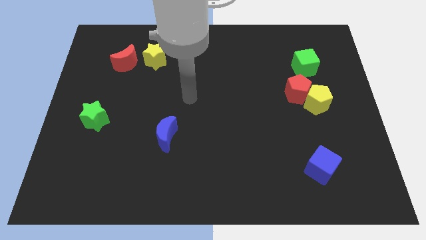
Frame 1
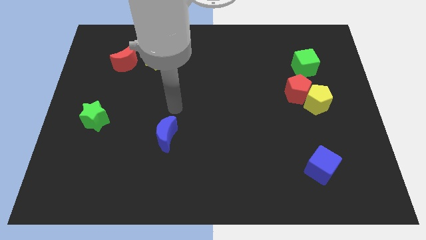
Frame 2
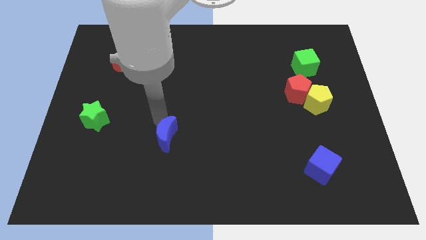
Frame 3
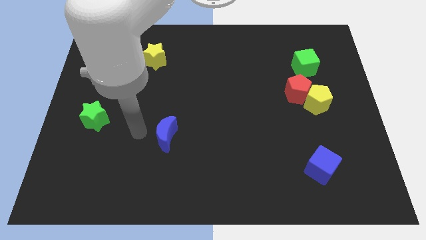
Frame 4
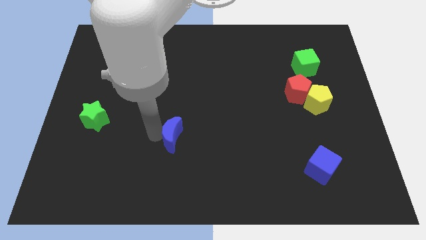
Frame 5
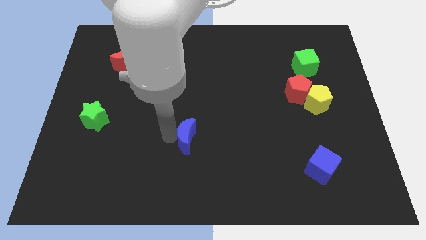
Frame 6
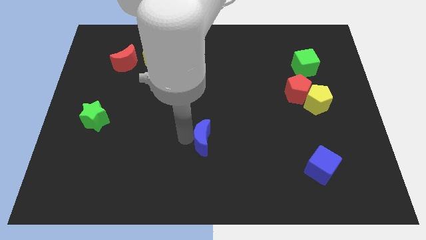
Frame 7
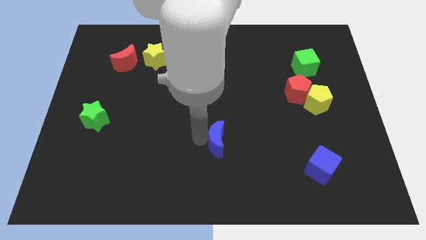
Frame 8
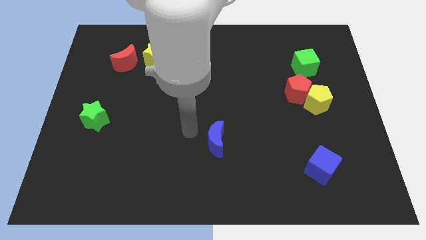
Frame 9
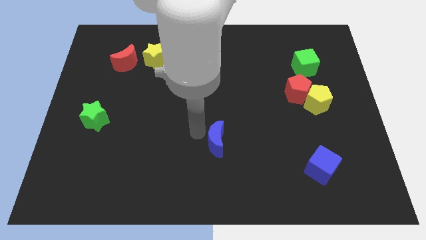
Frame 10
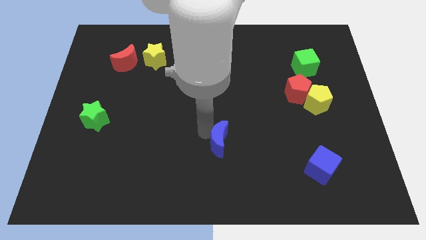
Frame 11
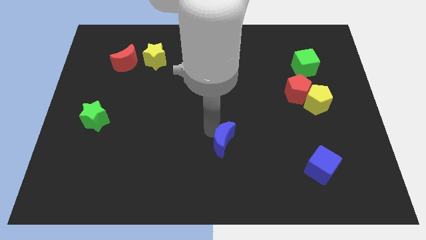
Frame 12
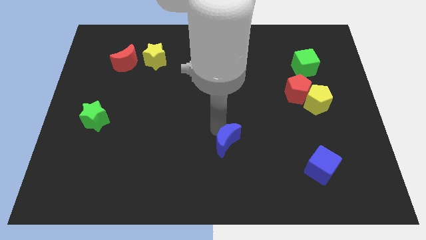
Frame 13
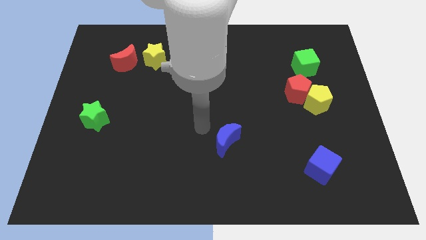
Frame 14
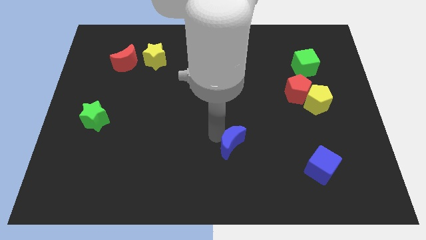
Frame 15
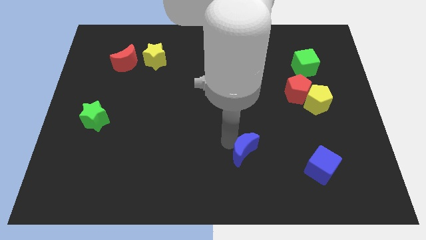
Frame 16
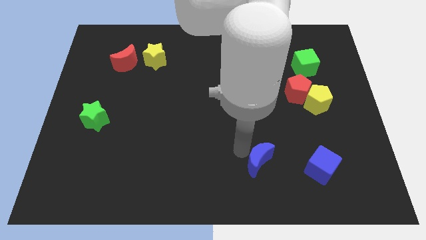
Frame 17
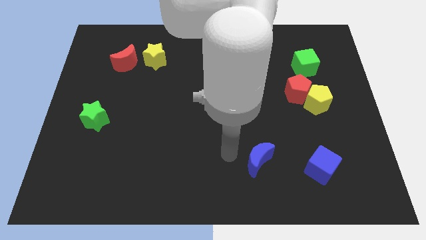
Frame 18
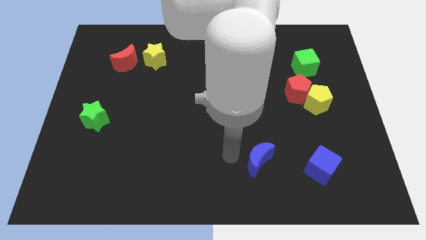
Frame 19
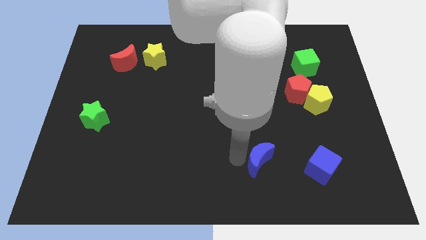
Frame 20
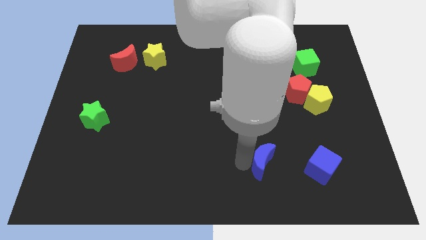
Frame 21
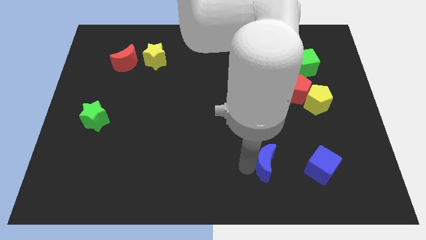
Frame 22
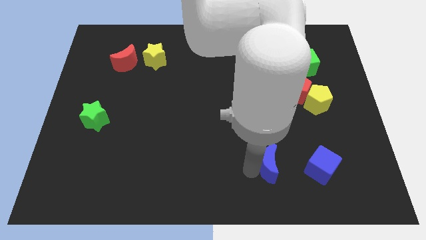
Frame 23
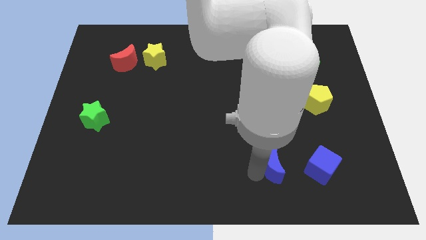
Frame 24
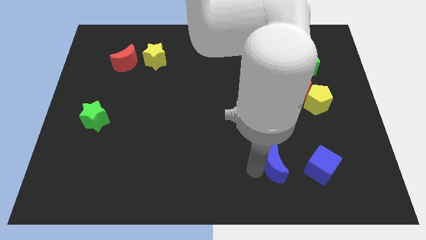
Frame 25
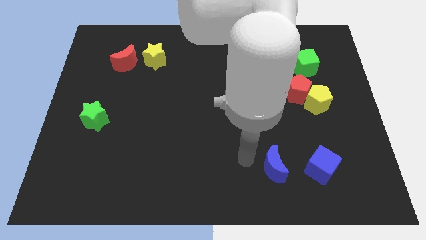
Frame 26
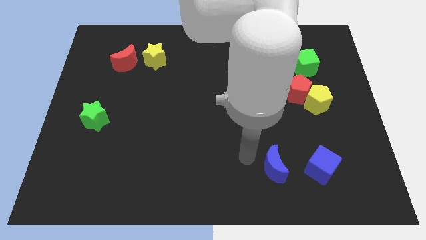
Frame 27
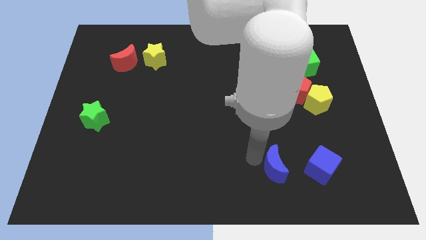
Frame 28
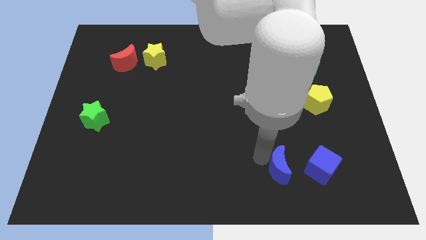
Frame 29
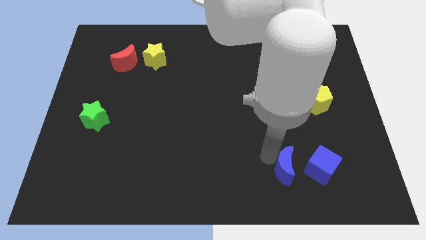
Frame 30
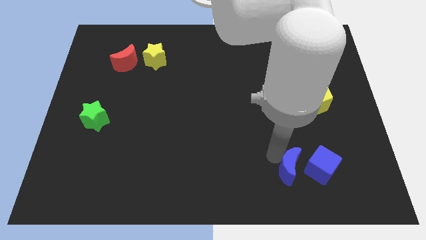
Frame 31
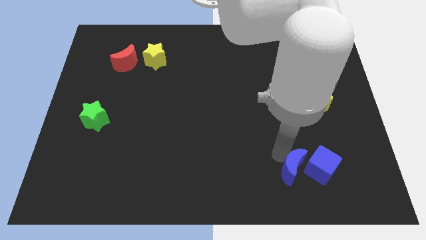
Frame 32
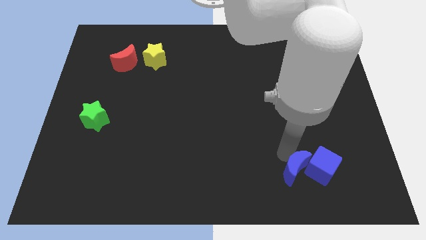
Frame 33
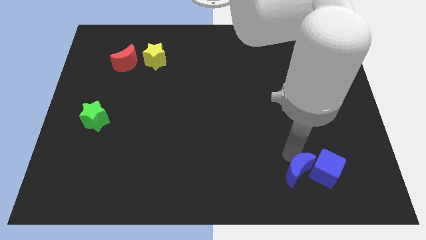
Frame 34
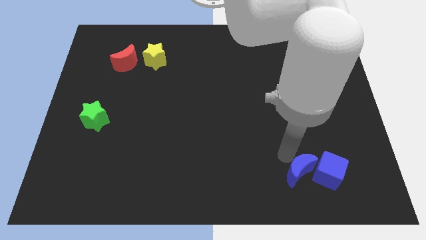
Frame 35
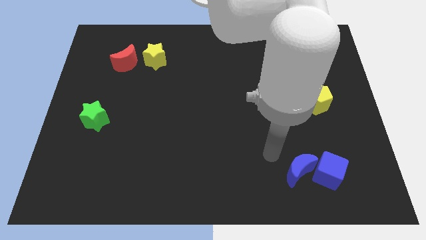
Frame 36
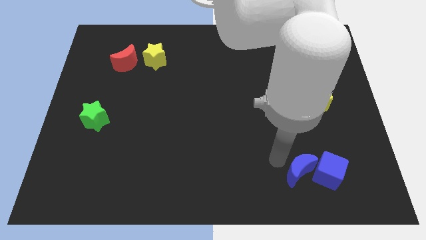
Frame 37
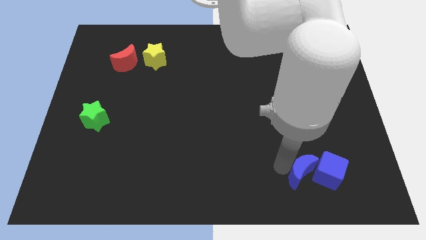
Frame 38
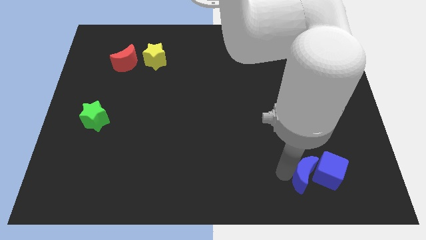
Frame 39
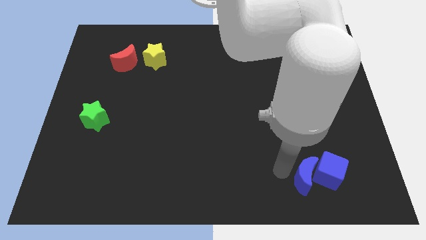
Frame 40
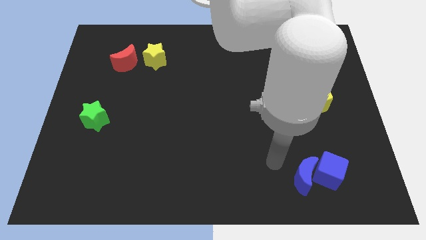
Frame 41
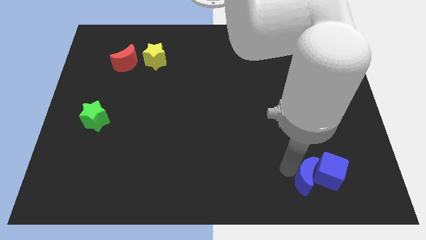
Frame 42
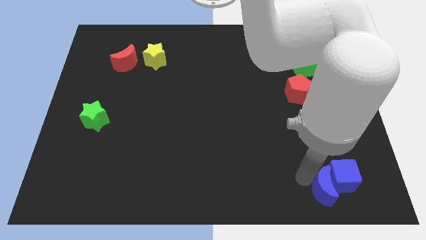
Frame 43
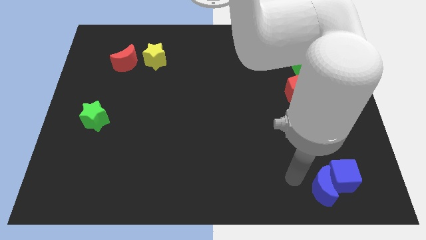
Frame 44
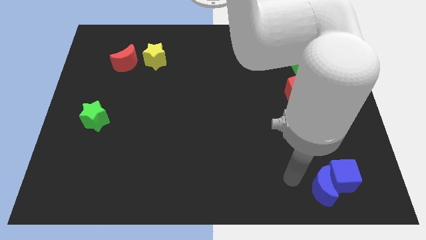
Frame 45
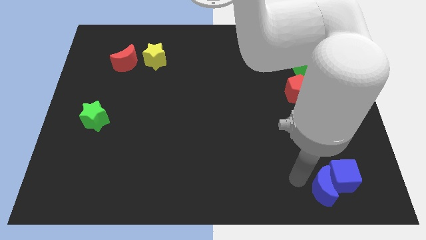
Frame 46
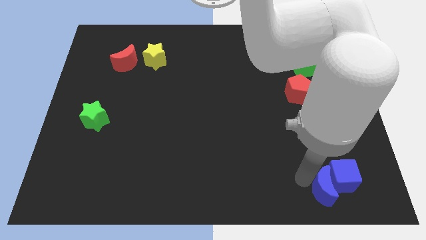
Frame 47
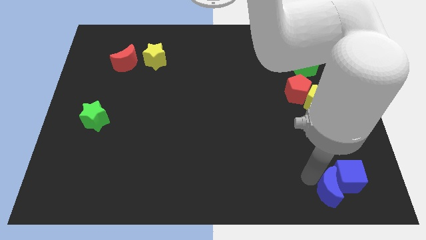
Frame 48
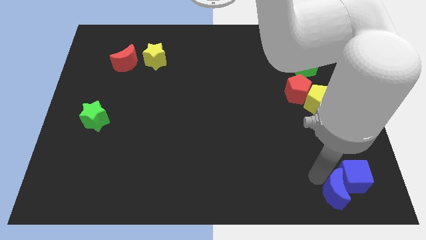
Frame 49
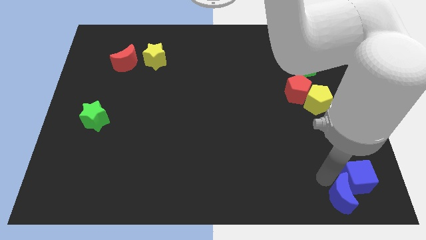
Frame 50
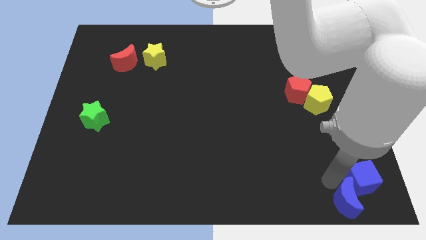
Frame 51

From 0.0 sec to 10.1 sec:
slide the blue moon to the bottom right

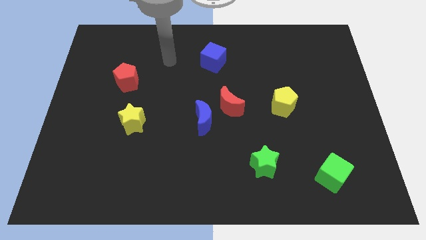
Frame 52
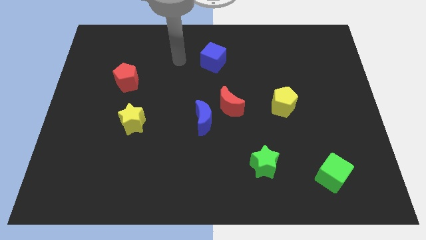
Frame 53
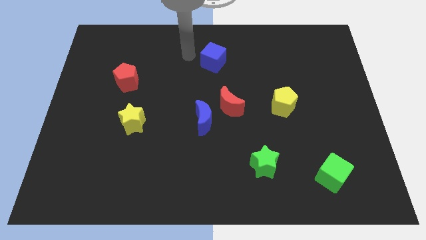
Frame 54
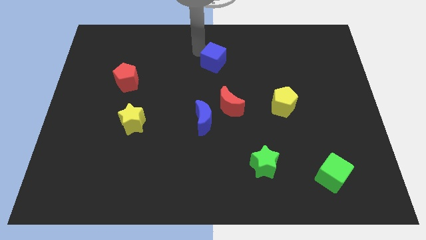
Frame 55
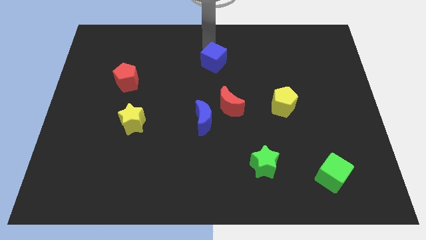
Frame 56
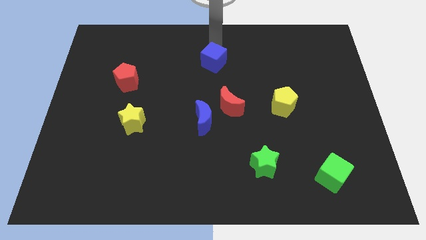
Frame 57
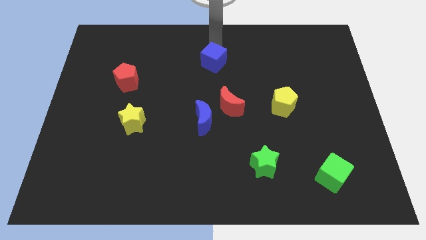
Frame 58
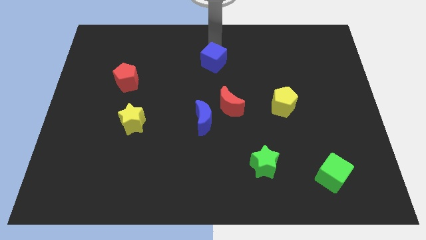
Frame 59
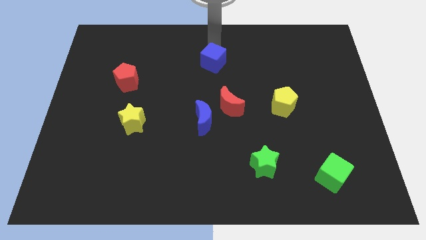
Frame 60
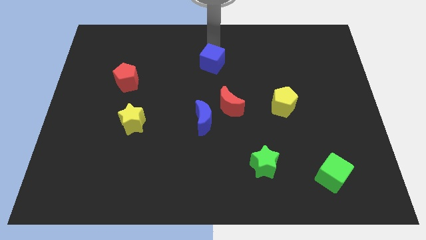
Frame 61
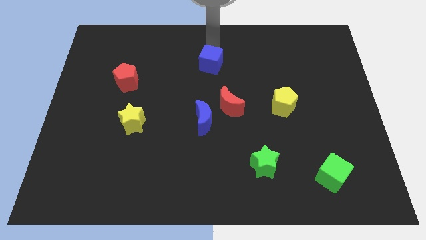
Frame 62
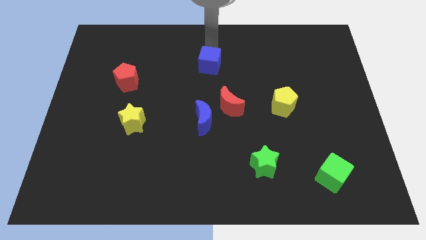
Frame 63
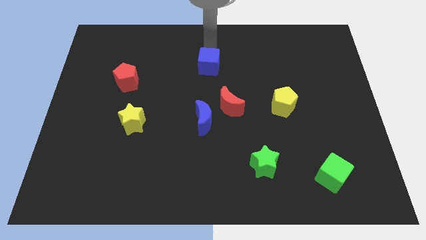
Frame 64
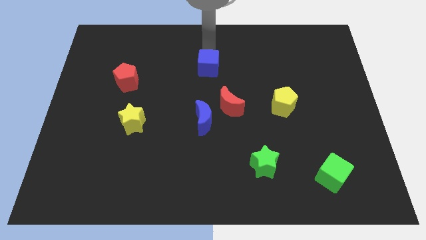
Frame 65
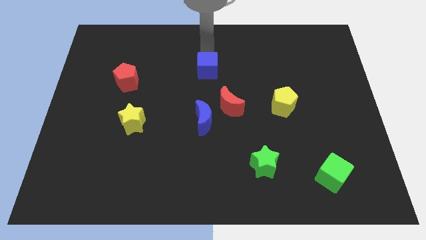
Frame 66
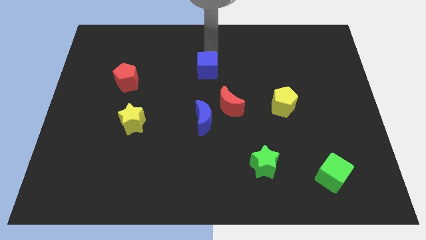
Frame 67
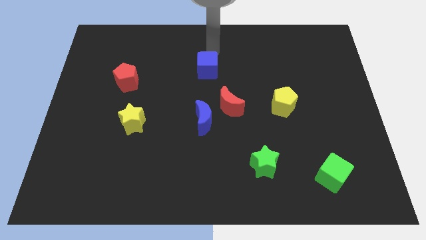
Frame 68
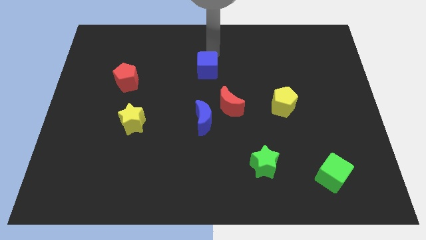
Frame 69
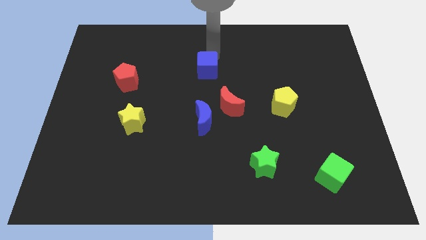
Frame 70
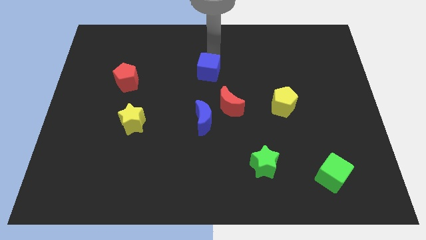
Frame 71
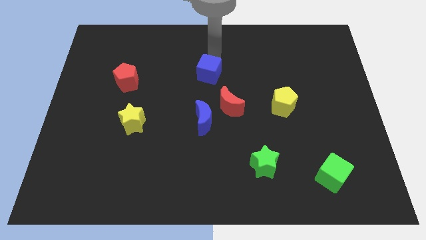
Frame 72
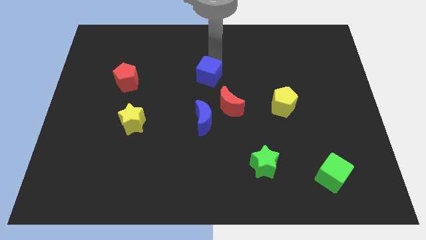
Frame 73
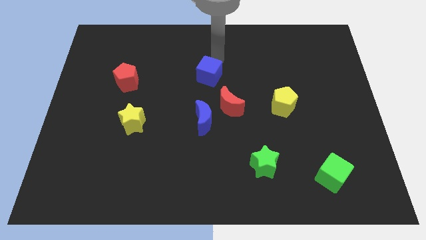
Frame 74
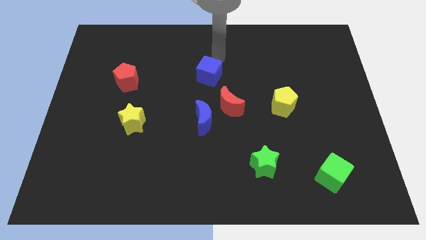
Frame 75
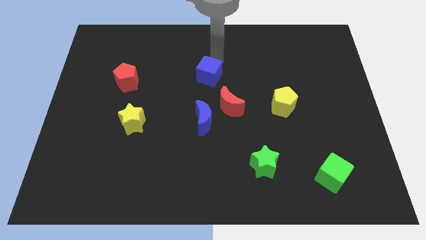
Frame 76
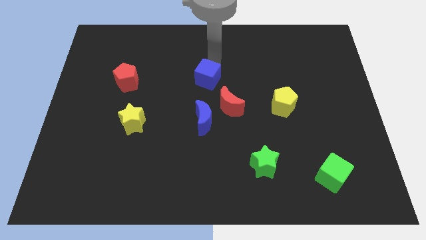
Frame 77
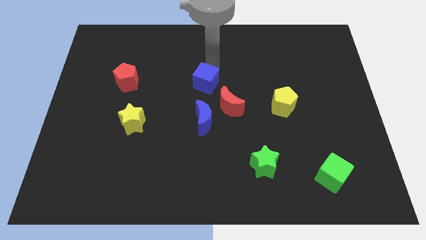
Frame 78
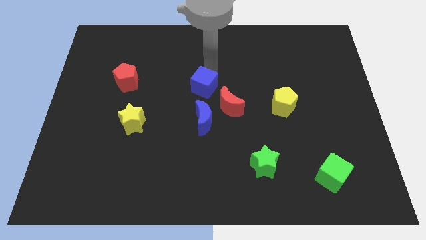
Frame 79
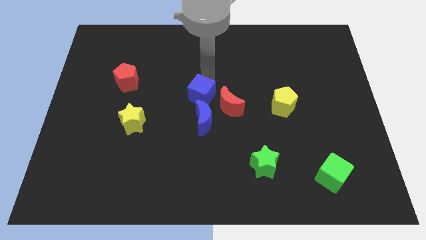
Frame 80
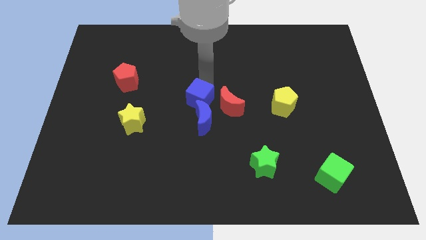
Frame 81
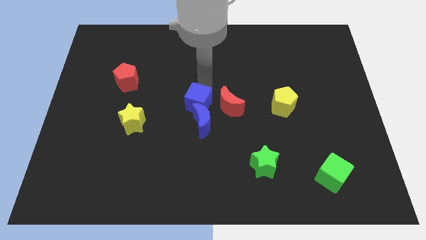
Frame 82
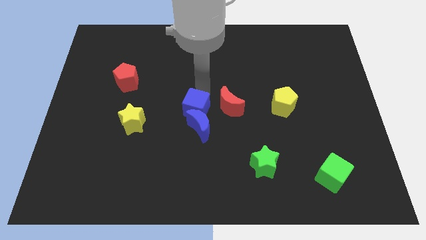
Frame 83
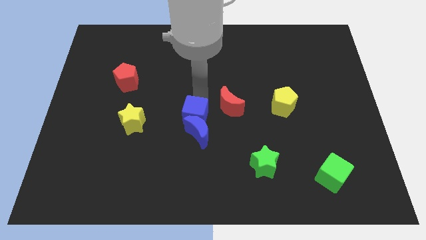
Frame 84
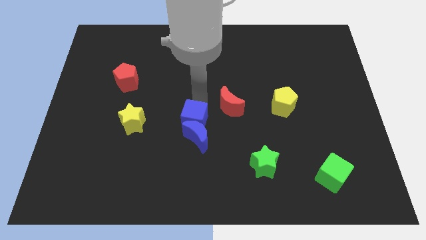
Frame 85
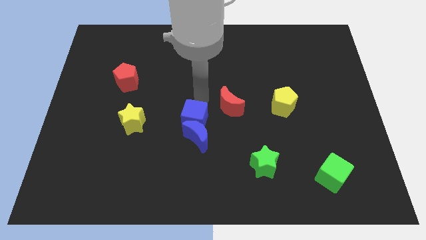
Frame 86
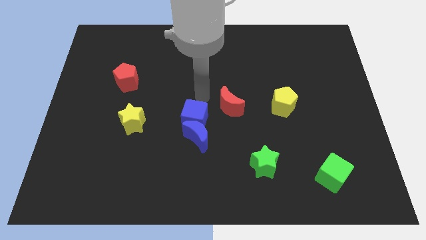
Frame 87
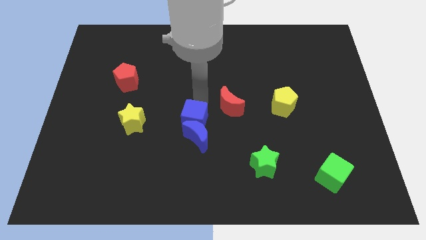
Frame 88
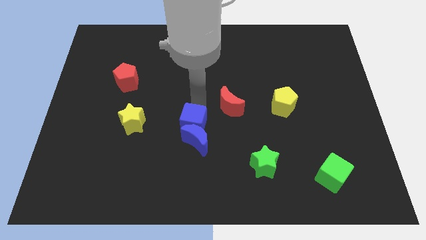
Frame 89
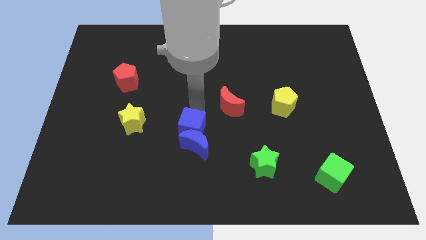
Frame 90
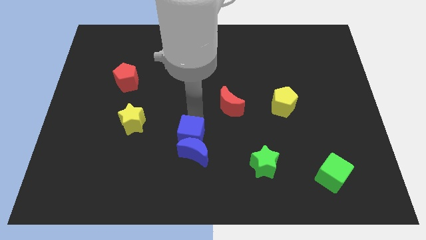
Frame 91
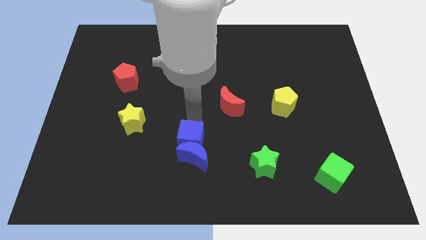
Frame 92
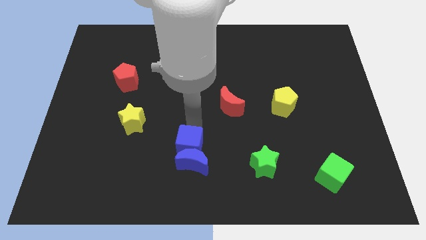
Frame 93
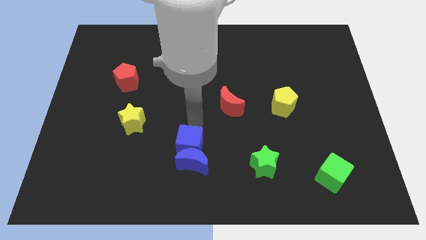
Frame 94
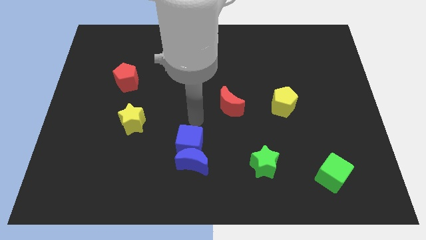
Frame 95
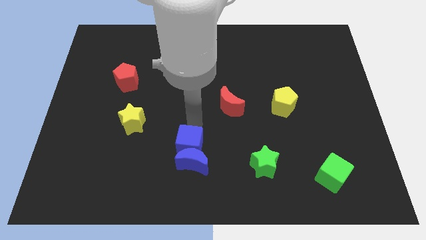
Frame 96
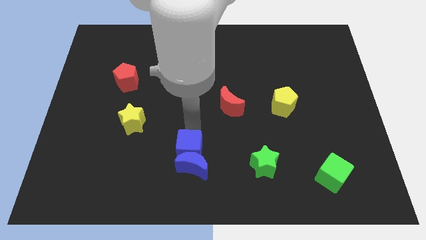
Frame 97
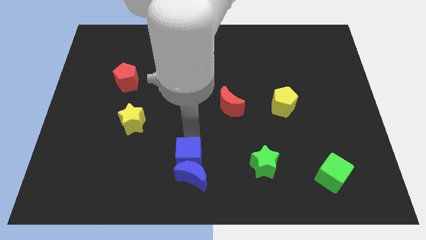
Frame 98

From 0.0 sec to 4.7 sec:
push the blue cube to the bottom side
